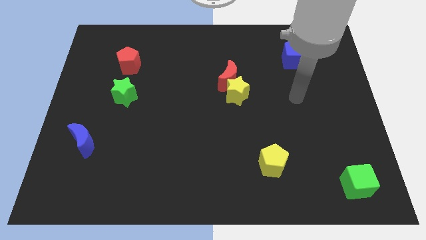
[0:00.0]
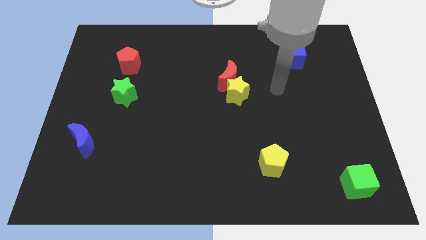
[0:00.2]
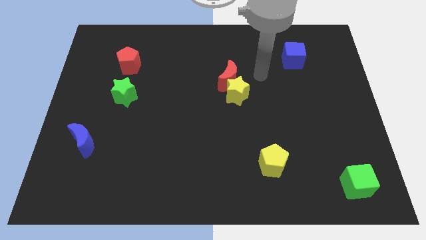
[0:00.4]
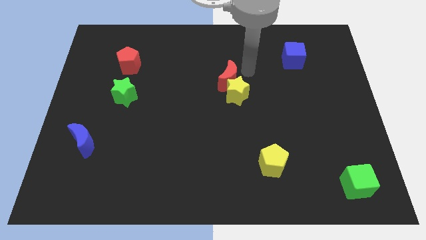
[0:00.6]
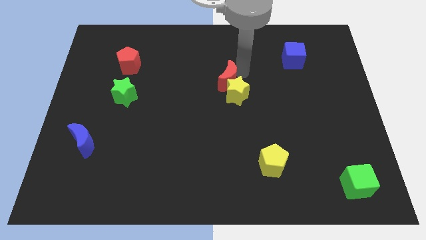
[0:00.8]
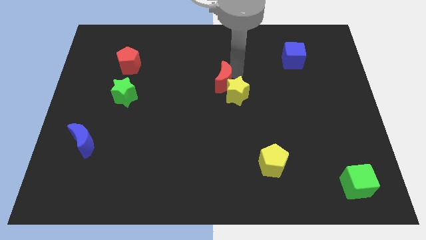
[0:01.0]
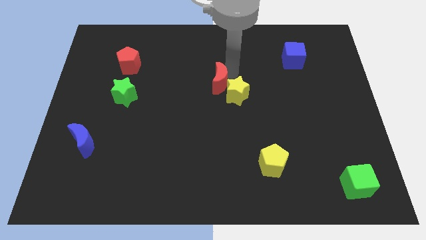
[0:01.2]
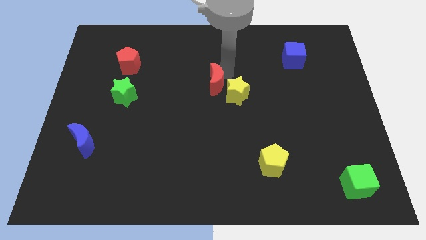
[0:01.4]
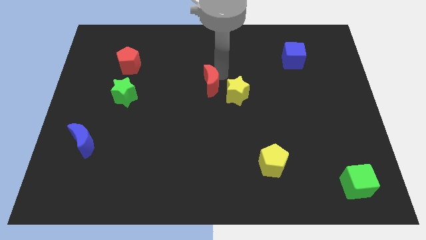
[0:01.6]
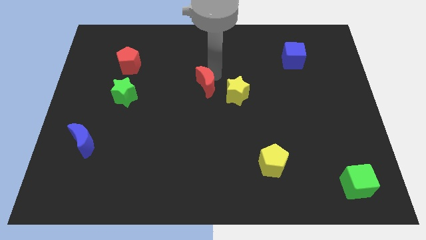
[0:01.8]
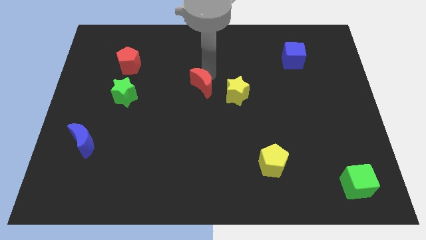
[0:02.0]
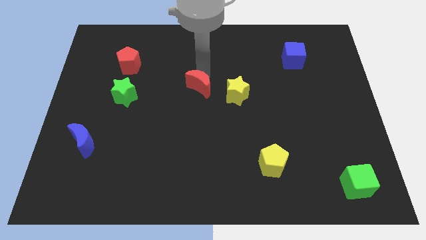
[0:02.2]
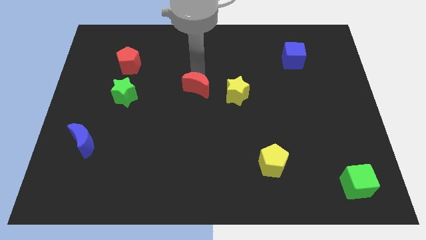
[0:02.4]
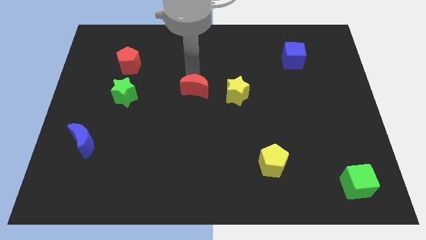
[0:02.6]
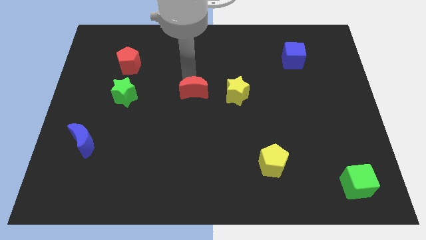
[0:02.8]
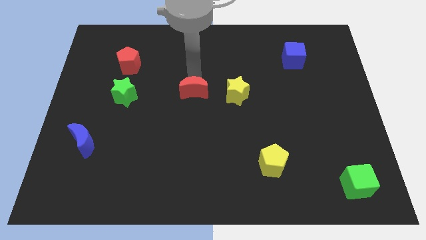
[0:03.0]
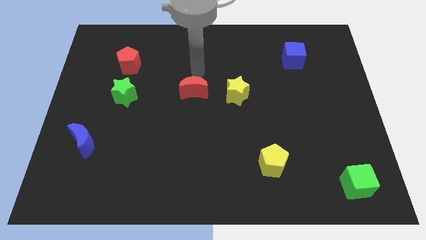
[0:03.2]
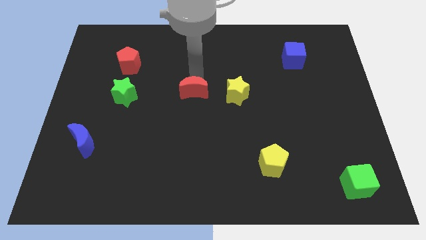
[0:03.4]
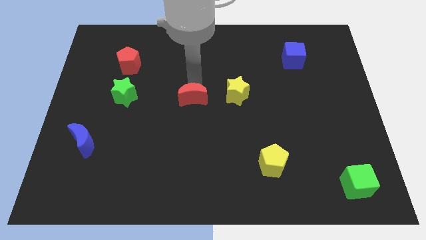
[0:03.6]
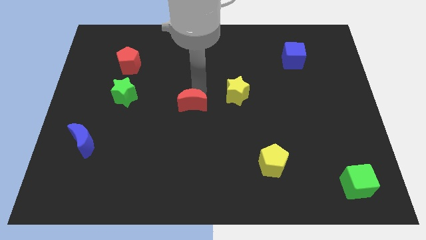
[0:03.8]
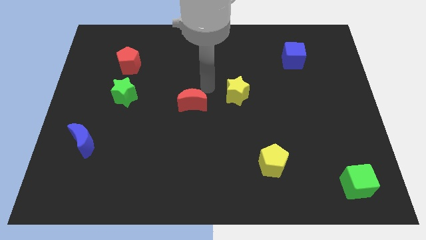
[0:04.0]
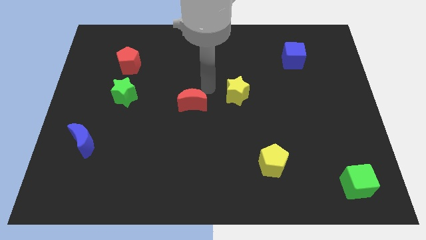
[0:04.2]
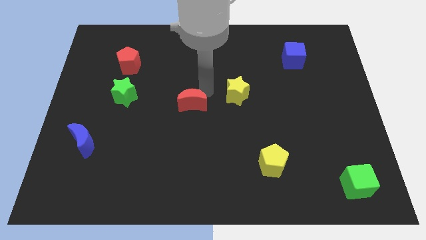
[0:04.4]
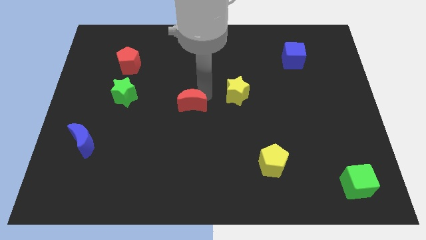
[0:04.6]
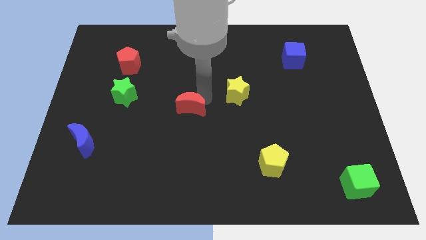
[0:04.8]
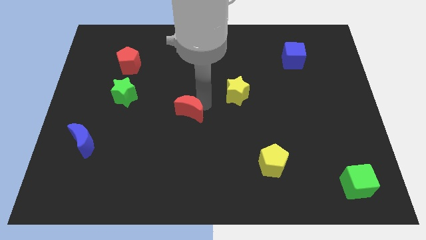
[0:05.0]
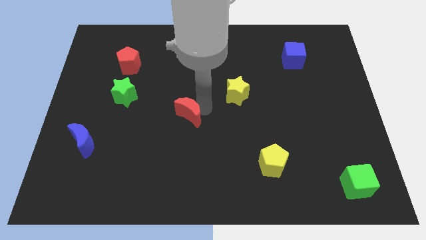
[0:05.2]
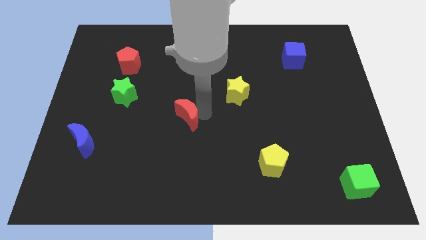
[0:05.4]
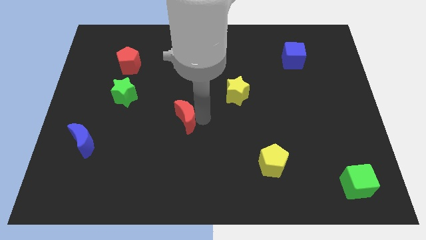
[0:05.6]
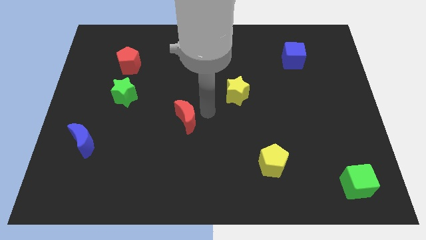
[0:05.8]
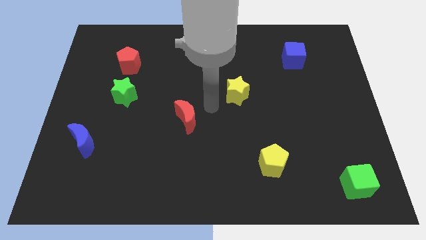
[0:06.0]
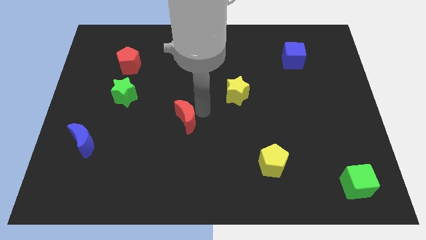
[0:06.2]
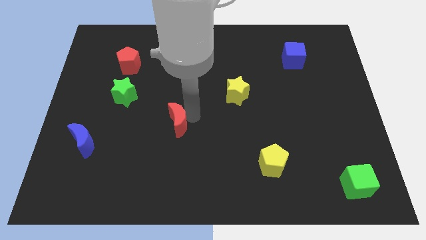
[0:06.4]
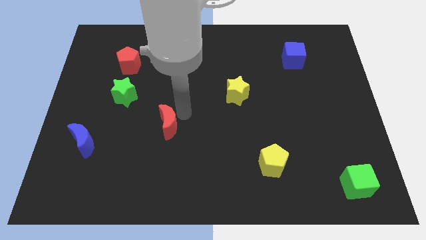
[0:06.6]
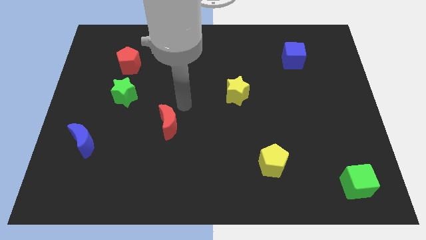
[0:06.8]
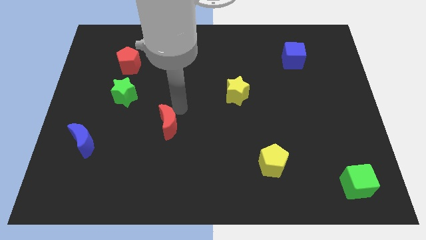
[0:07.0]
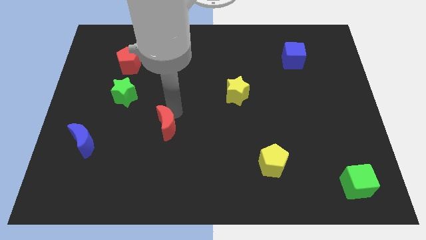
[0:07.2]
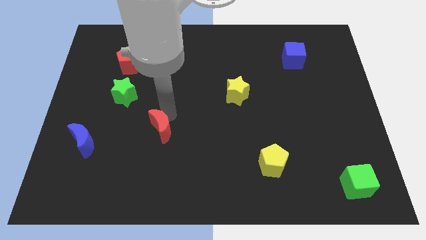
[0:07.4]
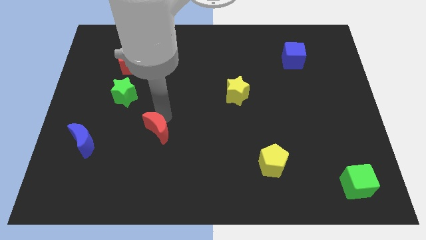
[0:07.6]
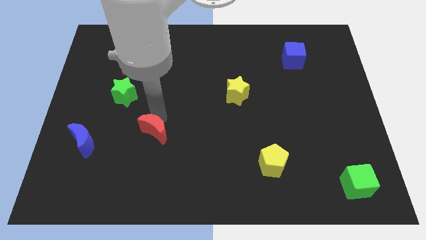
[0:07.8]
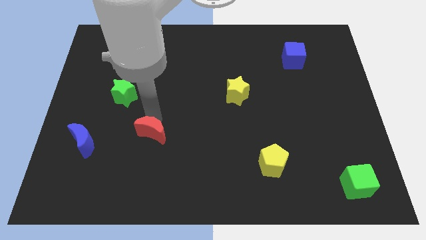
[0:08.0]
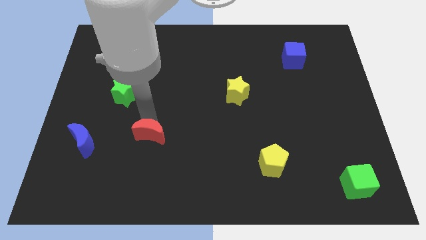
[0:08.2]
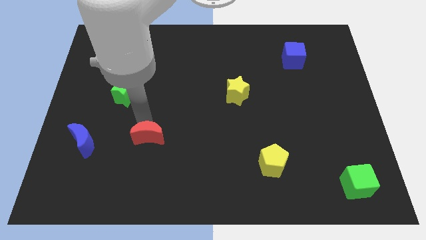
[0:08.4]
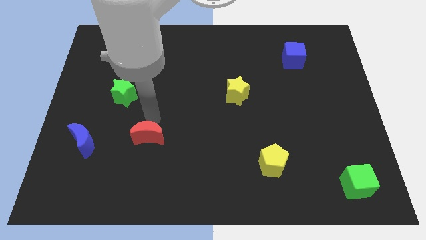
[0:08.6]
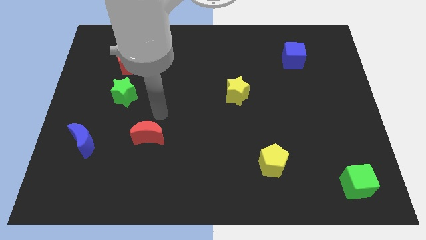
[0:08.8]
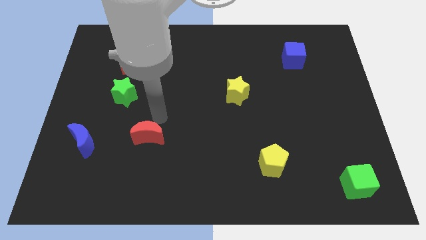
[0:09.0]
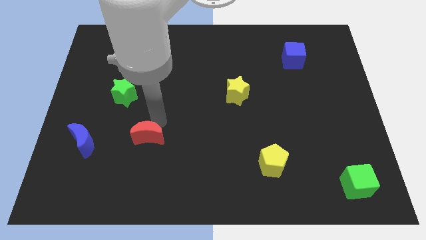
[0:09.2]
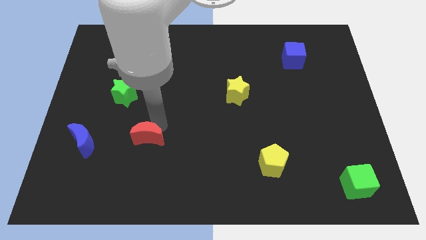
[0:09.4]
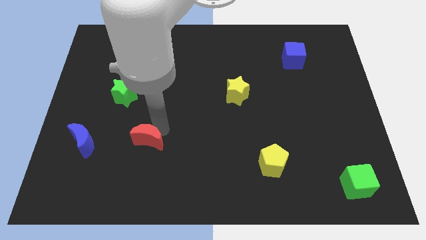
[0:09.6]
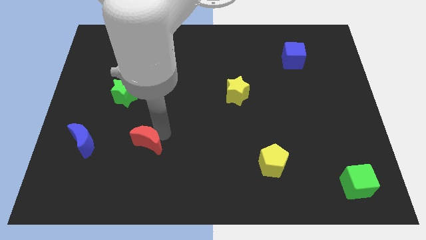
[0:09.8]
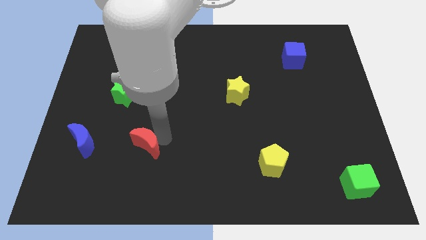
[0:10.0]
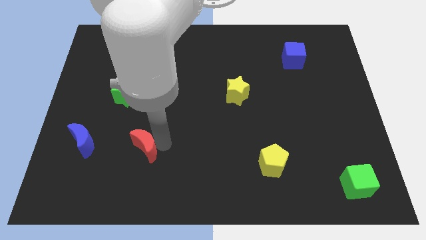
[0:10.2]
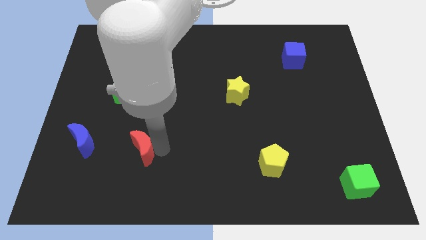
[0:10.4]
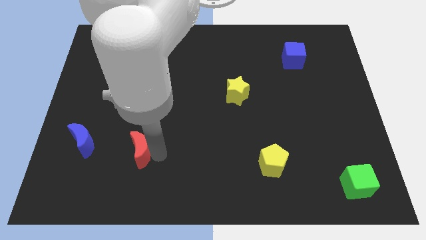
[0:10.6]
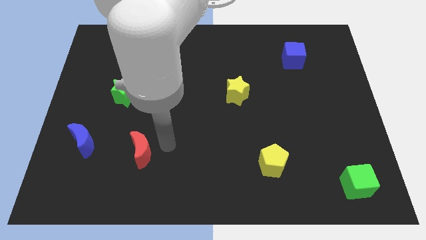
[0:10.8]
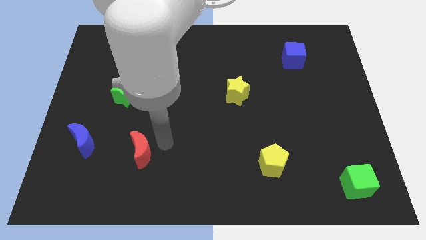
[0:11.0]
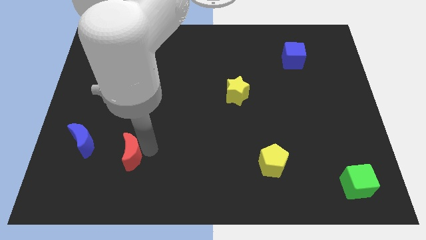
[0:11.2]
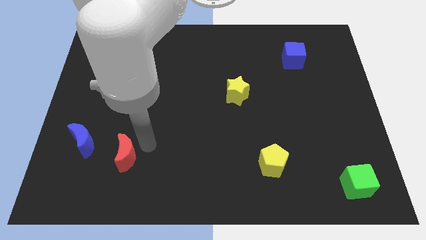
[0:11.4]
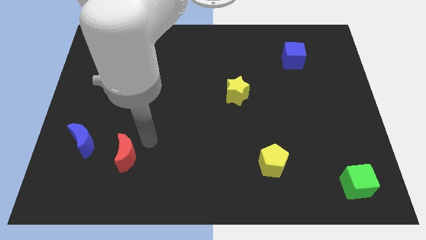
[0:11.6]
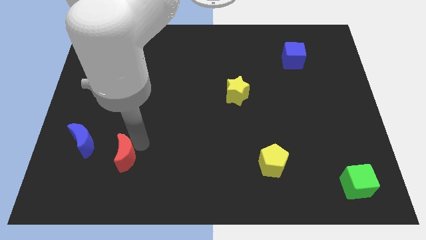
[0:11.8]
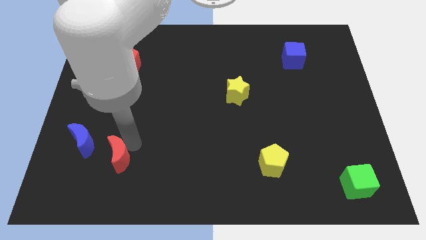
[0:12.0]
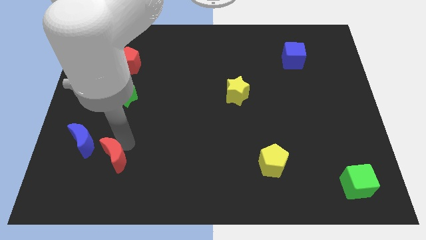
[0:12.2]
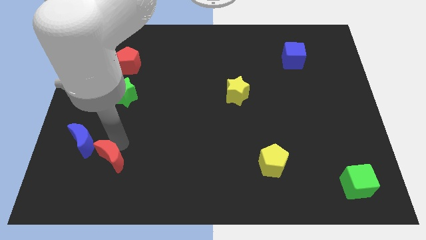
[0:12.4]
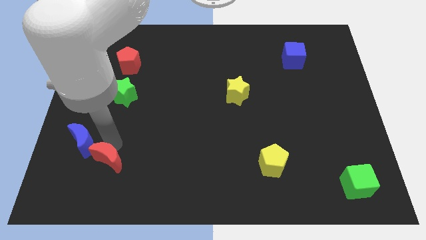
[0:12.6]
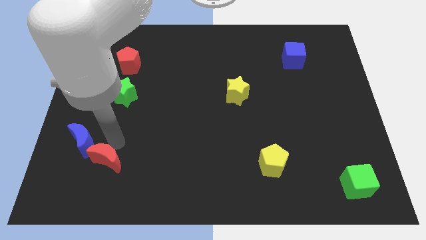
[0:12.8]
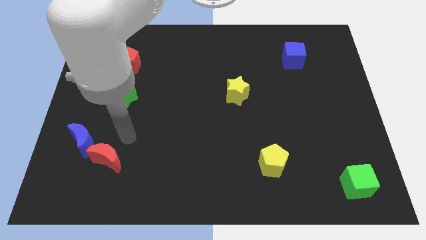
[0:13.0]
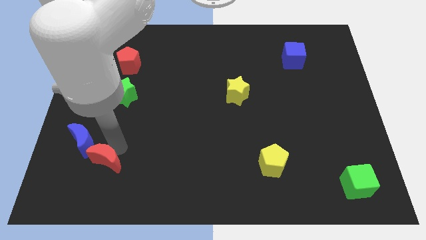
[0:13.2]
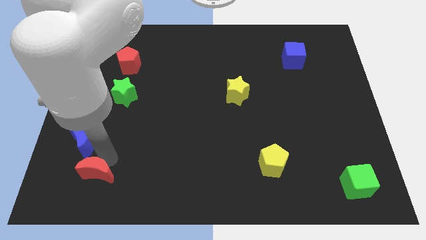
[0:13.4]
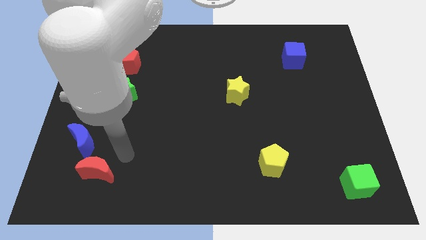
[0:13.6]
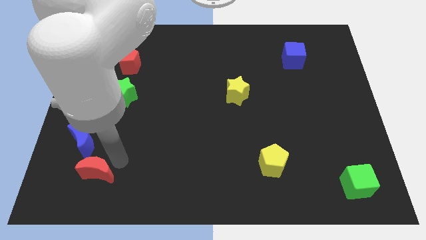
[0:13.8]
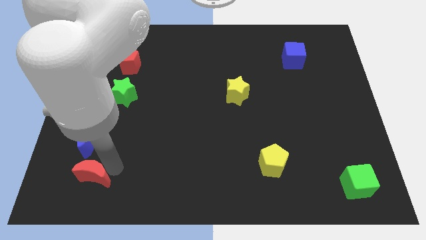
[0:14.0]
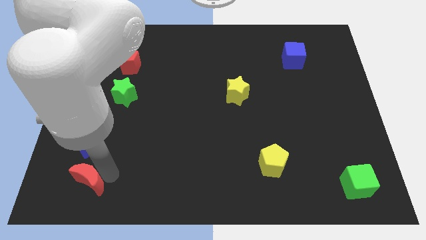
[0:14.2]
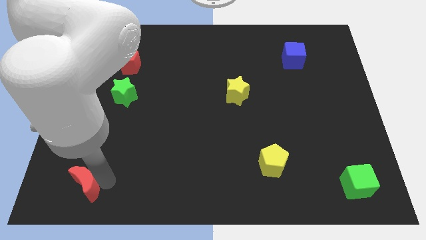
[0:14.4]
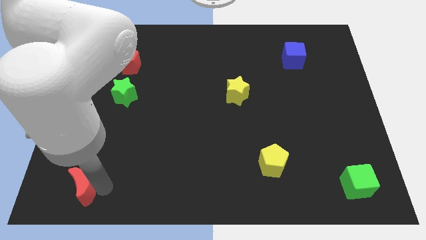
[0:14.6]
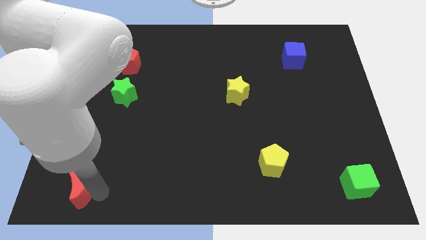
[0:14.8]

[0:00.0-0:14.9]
slide the red moon to the bottom left corner
